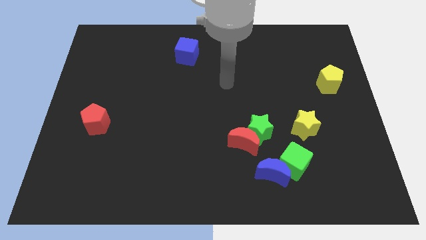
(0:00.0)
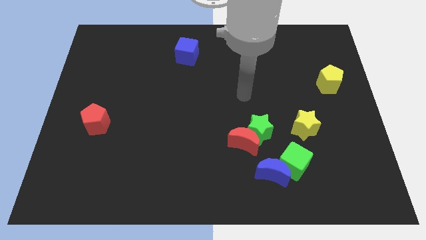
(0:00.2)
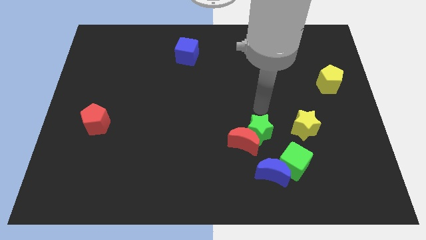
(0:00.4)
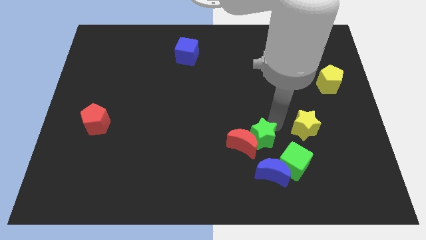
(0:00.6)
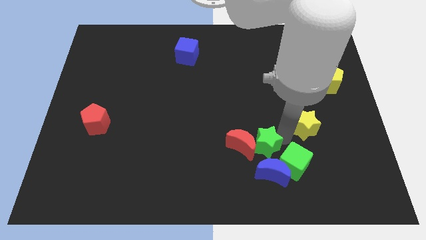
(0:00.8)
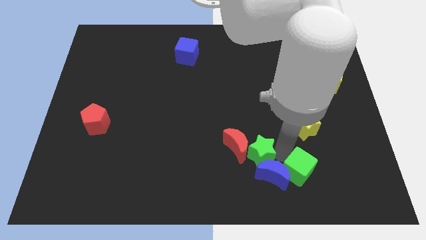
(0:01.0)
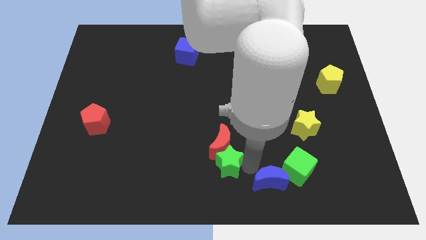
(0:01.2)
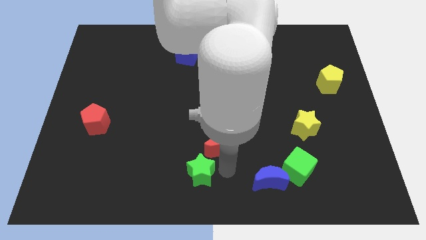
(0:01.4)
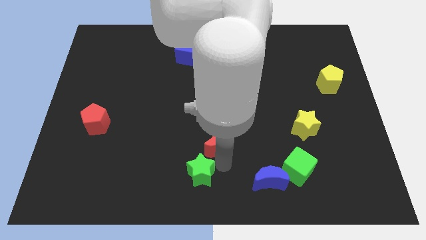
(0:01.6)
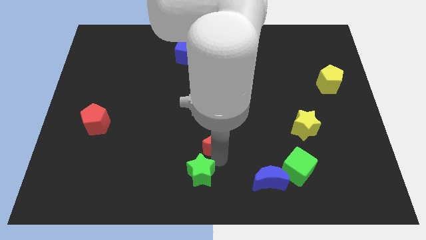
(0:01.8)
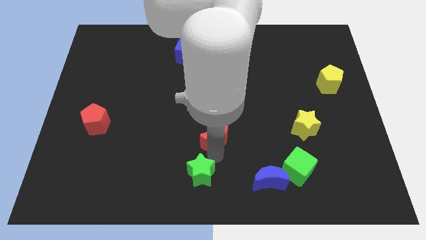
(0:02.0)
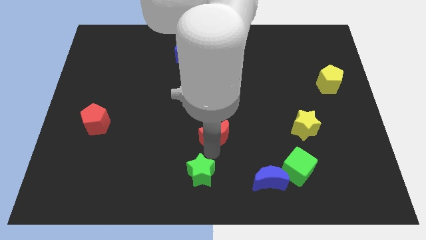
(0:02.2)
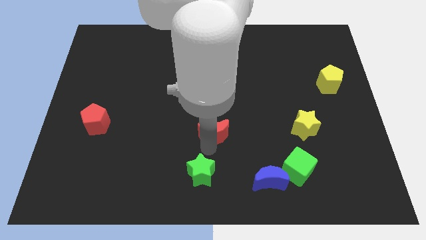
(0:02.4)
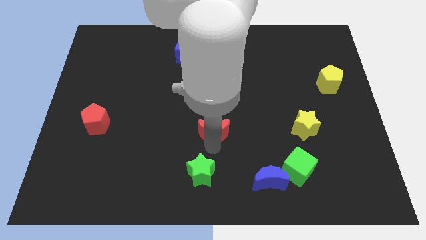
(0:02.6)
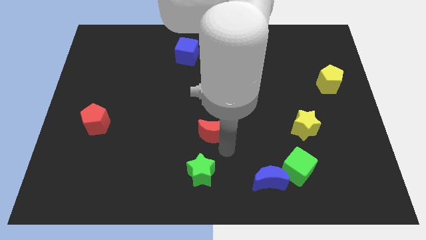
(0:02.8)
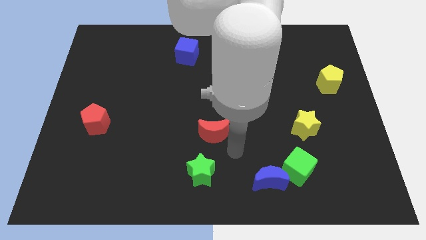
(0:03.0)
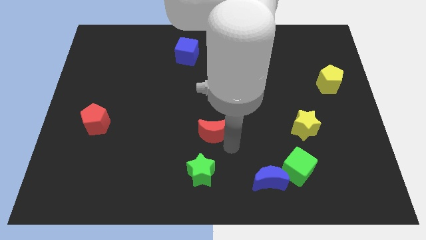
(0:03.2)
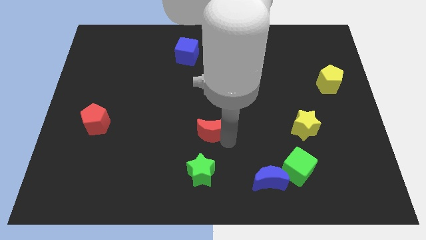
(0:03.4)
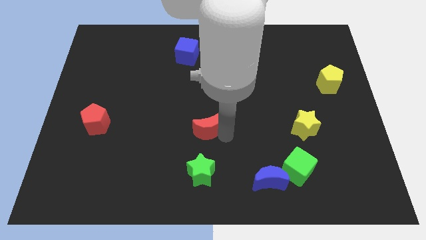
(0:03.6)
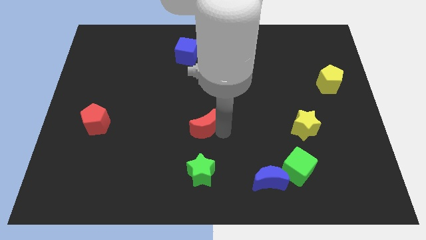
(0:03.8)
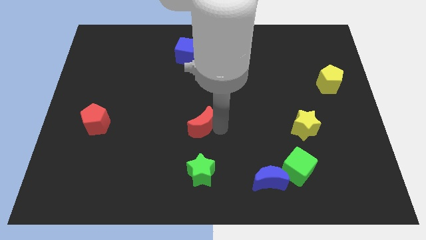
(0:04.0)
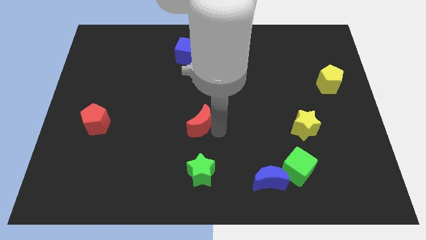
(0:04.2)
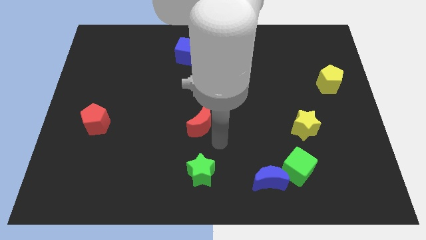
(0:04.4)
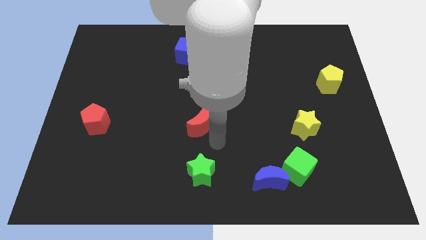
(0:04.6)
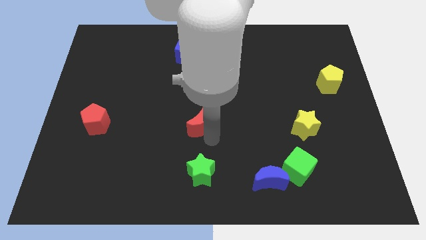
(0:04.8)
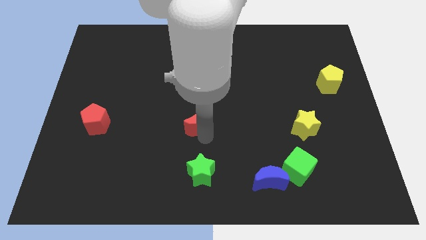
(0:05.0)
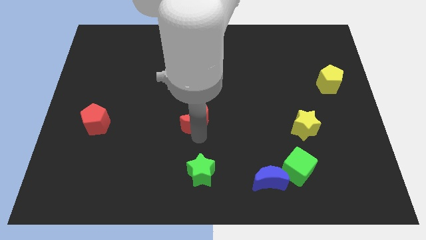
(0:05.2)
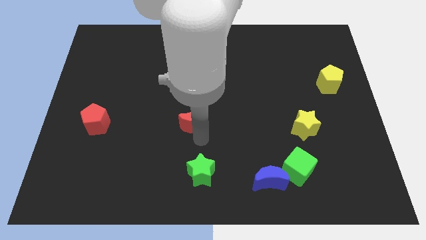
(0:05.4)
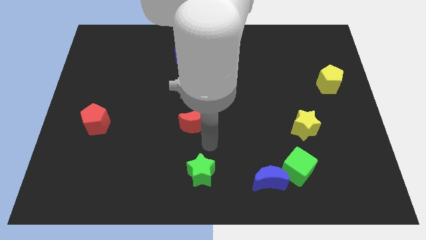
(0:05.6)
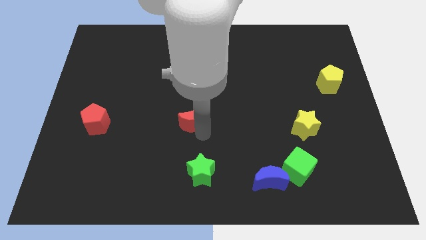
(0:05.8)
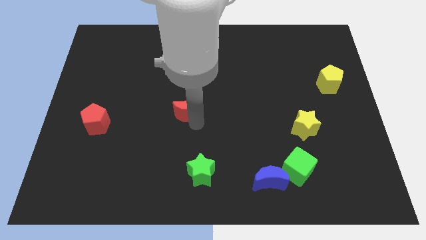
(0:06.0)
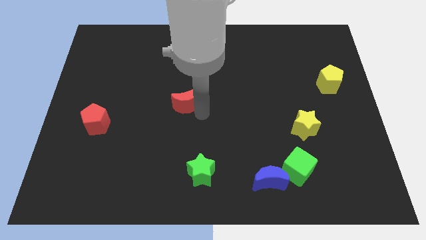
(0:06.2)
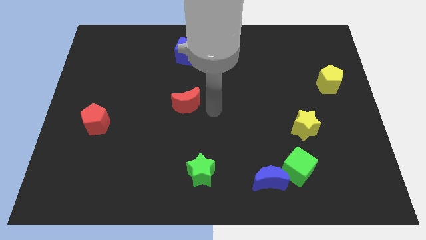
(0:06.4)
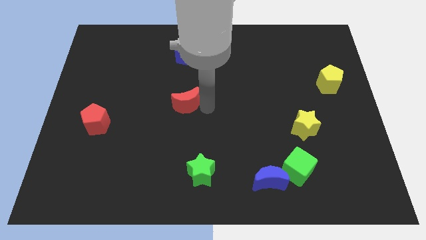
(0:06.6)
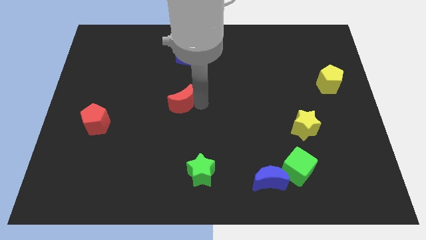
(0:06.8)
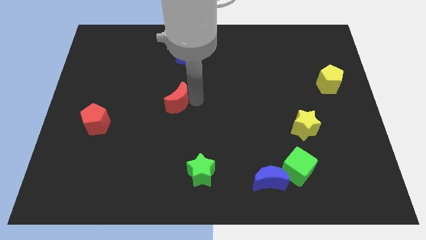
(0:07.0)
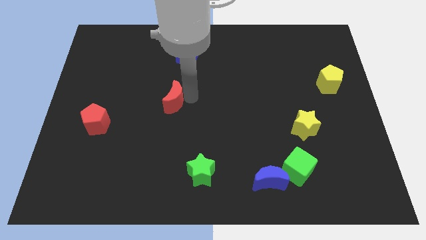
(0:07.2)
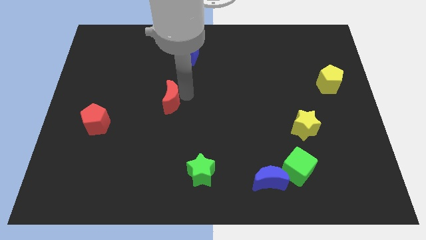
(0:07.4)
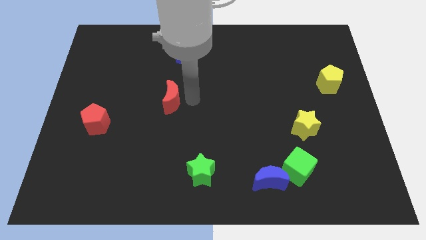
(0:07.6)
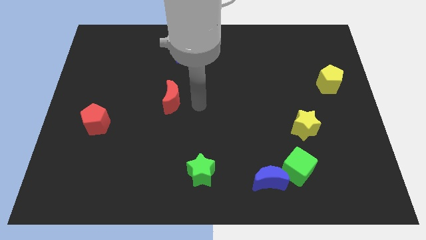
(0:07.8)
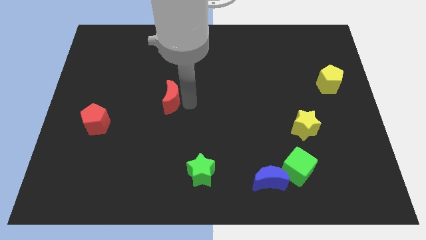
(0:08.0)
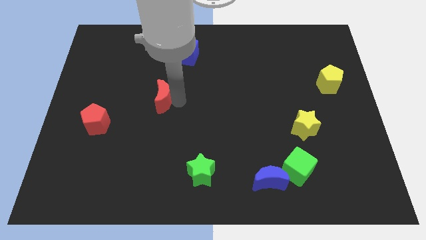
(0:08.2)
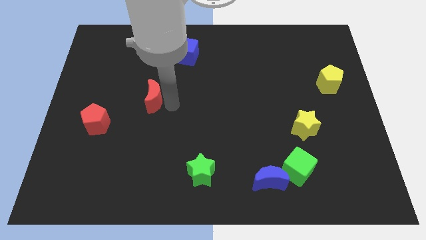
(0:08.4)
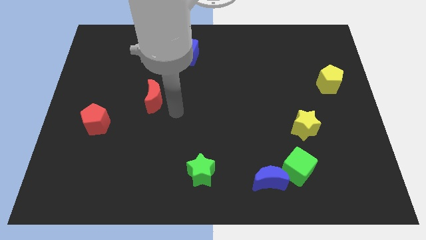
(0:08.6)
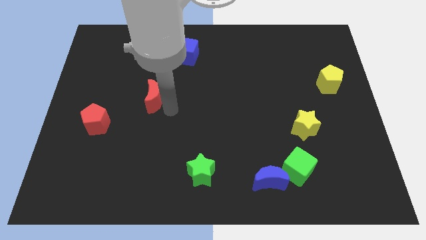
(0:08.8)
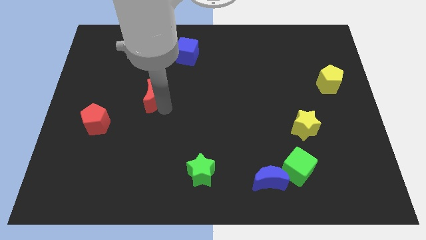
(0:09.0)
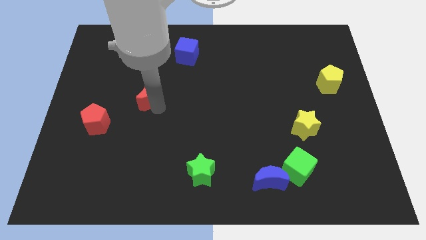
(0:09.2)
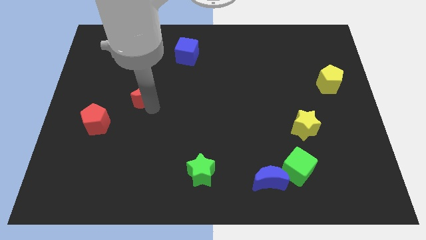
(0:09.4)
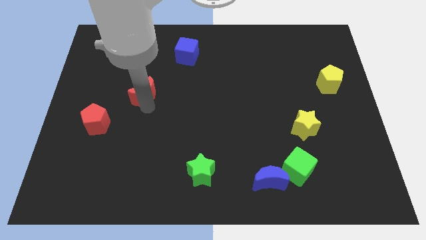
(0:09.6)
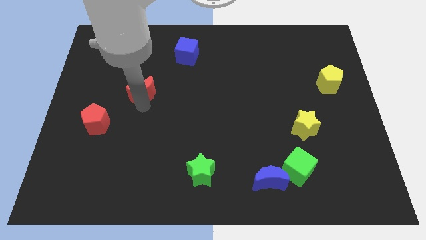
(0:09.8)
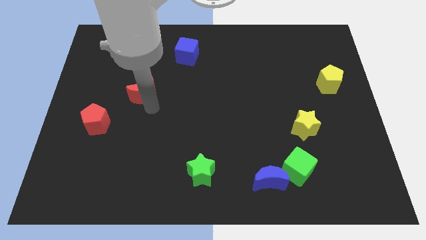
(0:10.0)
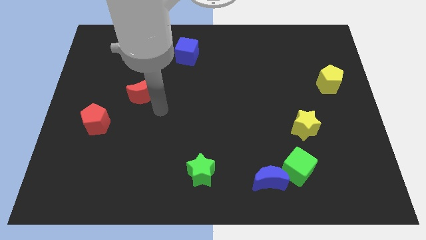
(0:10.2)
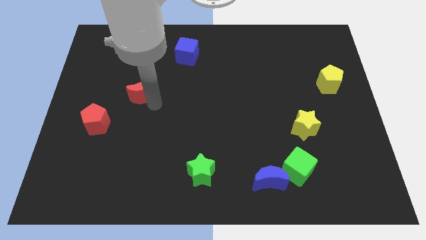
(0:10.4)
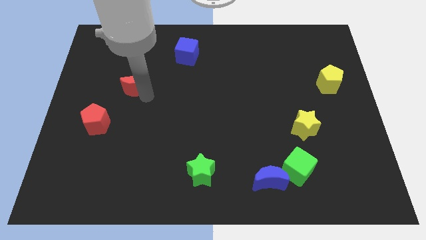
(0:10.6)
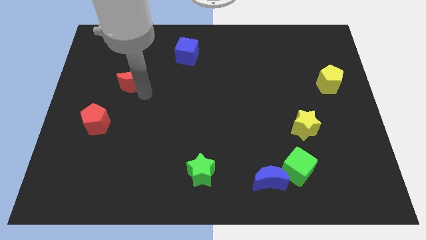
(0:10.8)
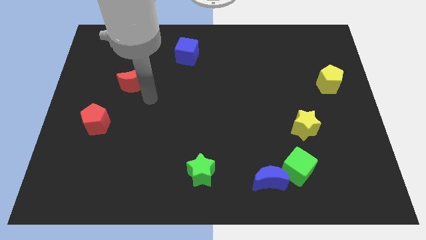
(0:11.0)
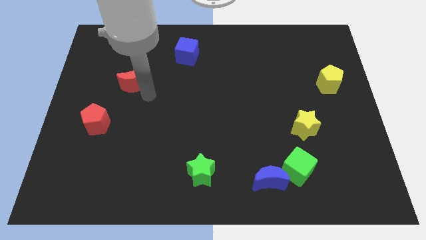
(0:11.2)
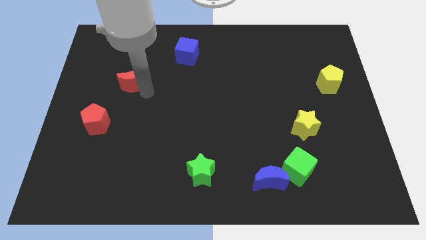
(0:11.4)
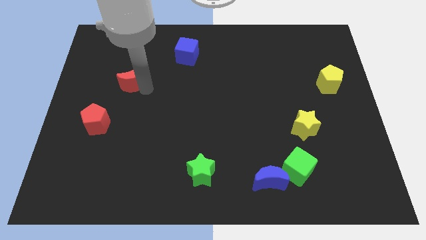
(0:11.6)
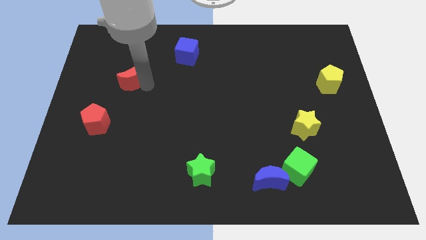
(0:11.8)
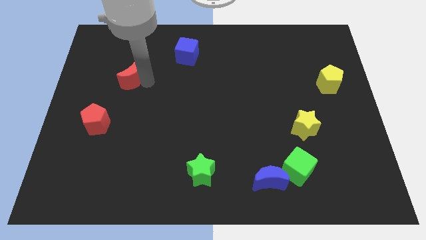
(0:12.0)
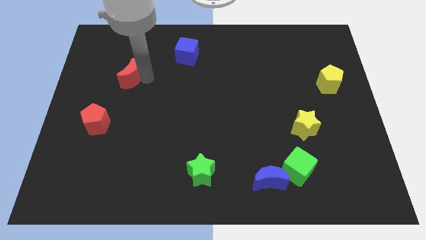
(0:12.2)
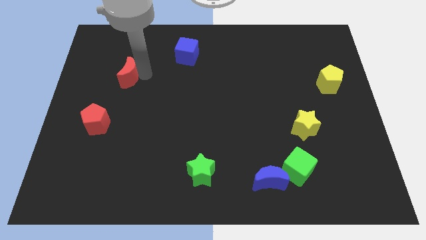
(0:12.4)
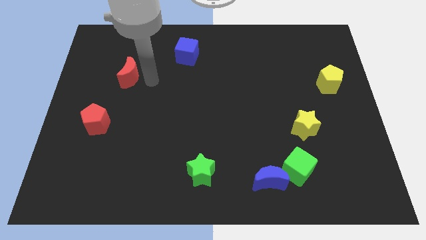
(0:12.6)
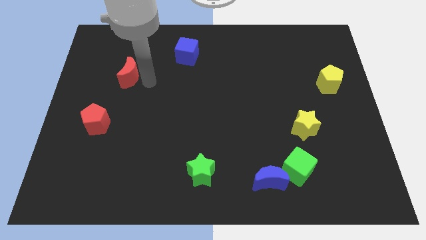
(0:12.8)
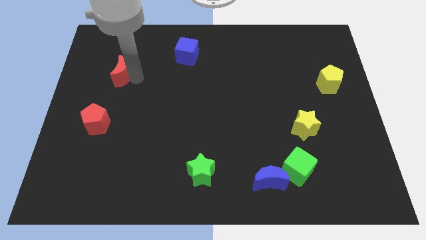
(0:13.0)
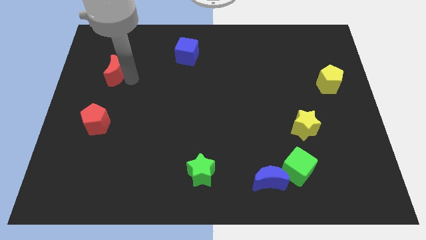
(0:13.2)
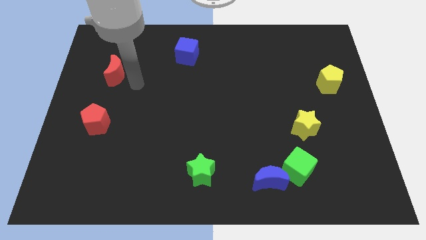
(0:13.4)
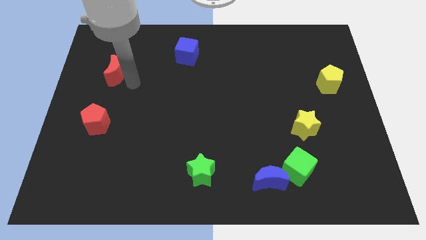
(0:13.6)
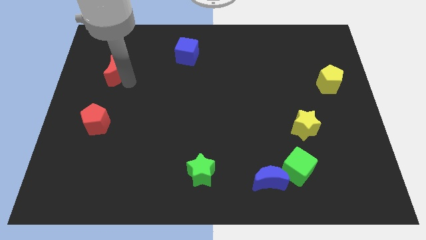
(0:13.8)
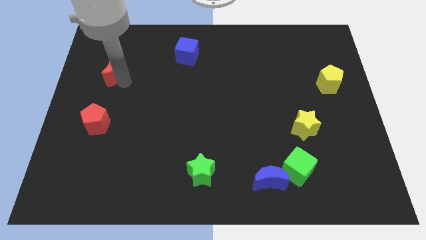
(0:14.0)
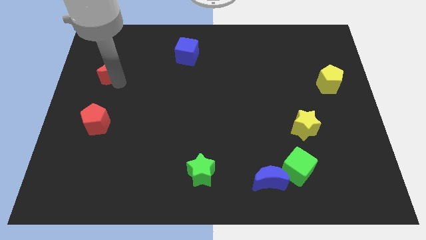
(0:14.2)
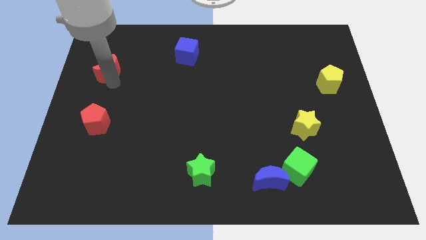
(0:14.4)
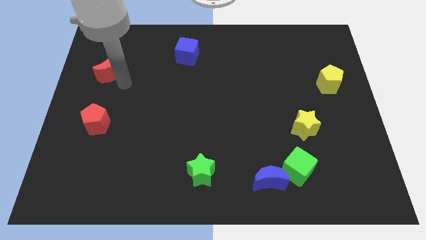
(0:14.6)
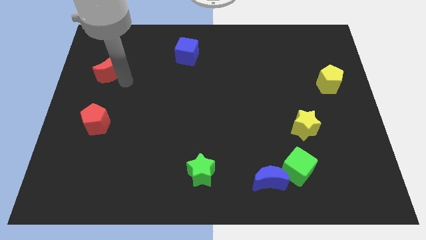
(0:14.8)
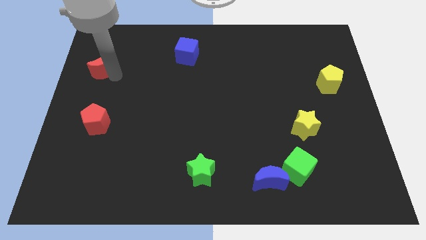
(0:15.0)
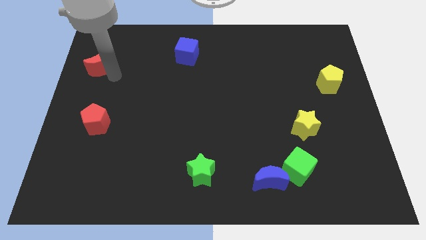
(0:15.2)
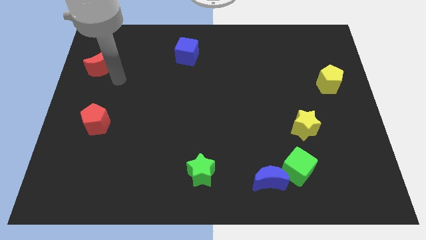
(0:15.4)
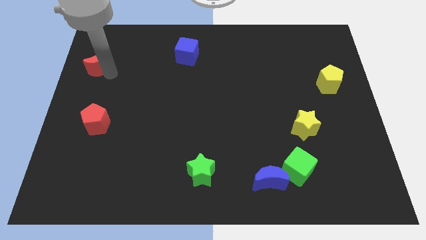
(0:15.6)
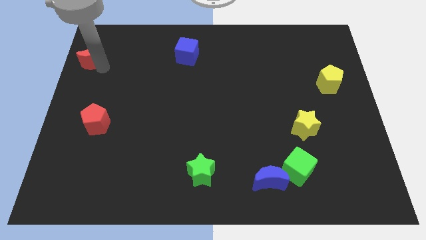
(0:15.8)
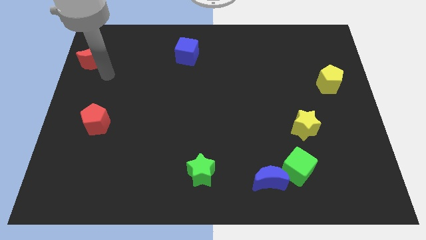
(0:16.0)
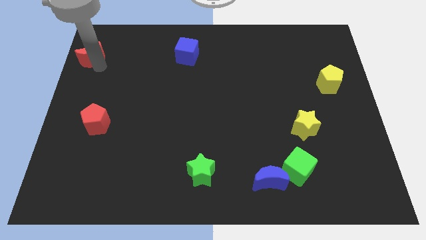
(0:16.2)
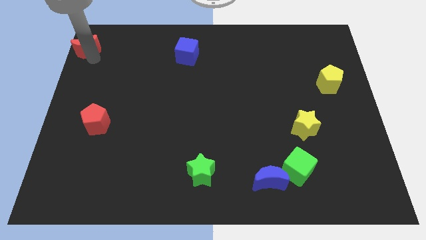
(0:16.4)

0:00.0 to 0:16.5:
move the red moon to the top left
